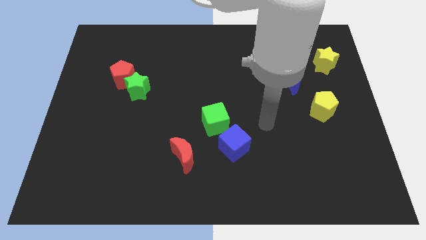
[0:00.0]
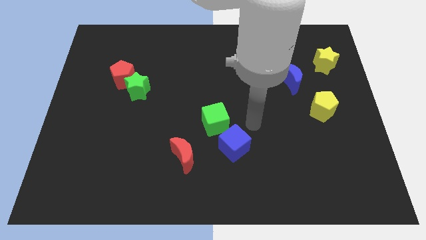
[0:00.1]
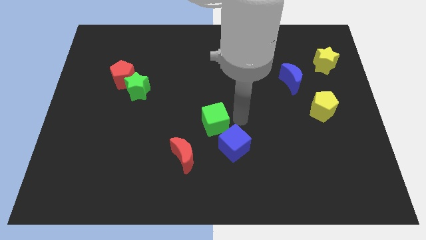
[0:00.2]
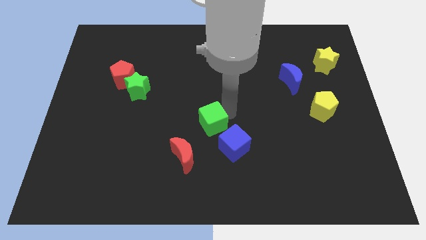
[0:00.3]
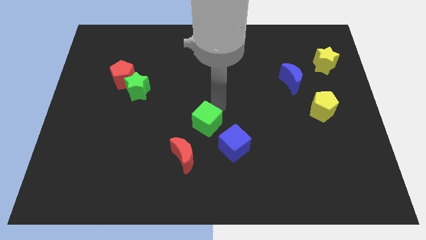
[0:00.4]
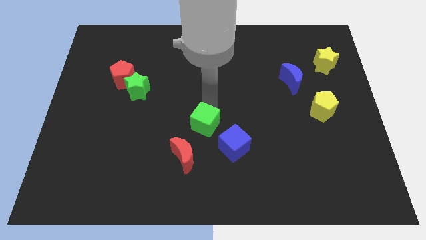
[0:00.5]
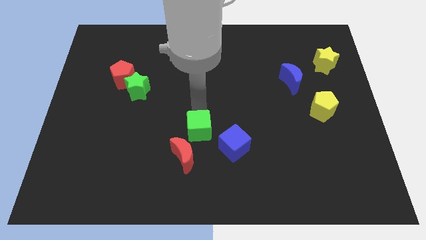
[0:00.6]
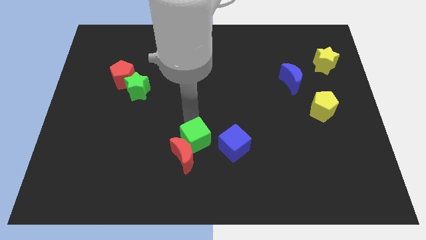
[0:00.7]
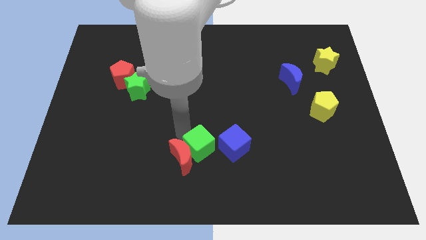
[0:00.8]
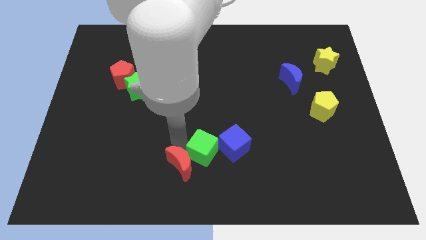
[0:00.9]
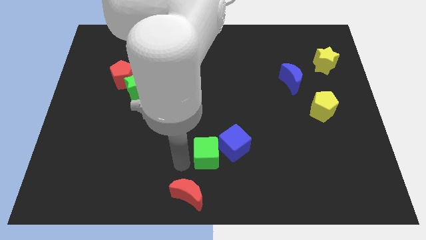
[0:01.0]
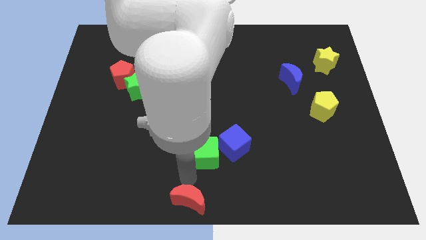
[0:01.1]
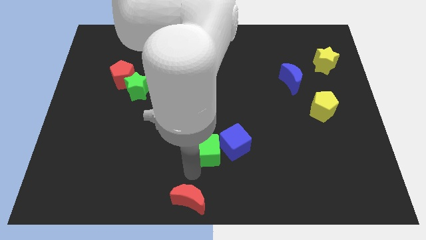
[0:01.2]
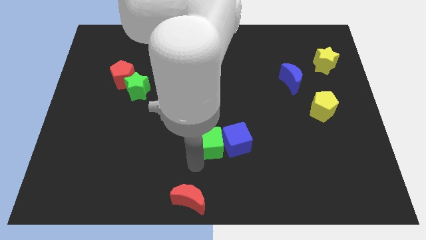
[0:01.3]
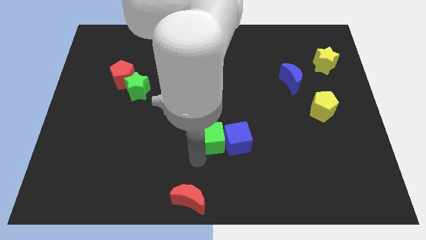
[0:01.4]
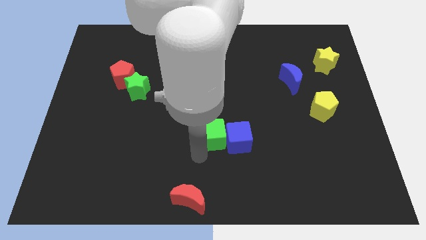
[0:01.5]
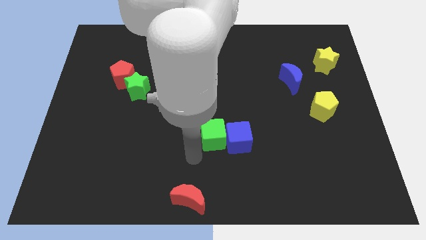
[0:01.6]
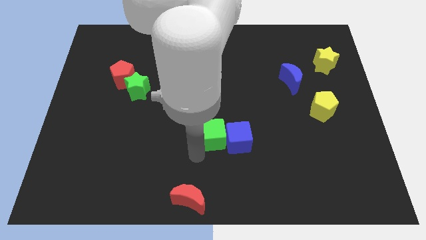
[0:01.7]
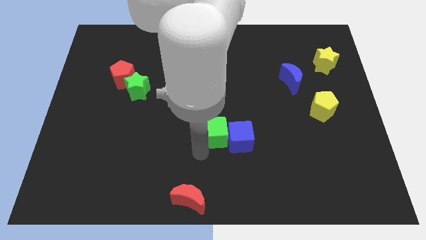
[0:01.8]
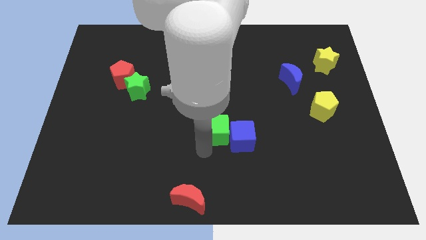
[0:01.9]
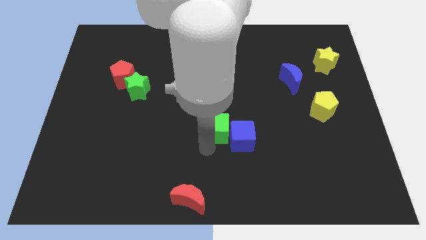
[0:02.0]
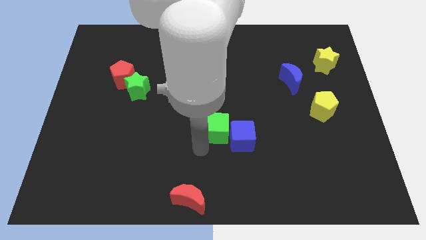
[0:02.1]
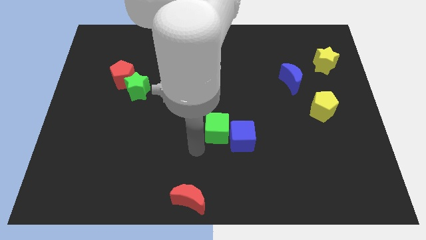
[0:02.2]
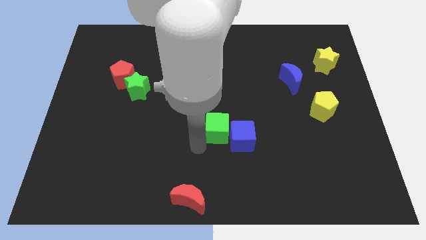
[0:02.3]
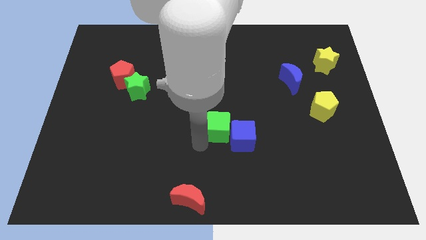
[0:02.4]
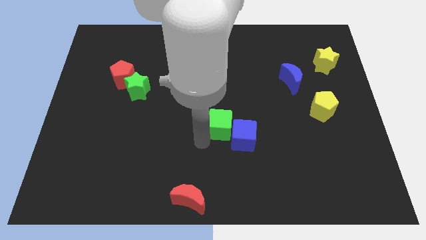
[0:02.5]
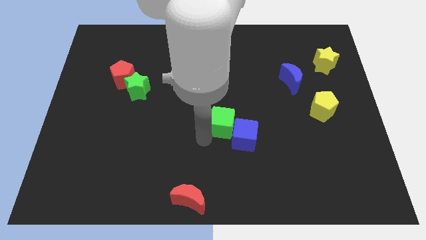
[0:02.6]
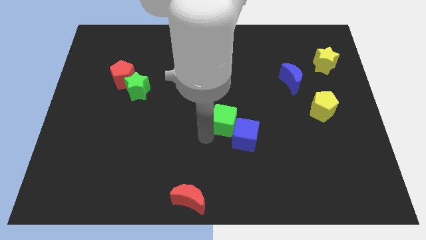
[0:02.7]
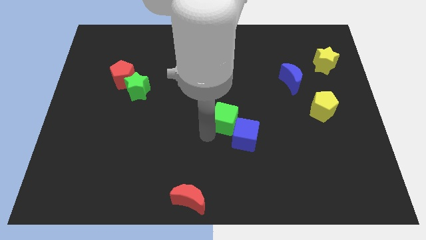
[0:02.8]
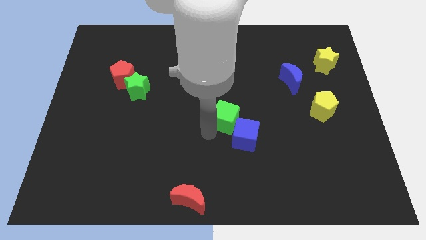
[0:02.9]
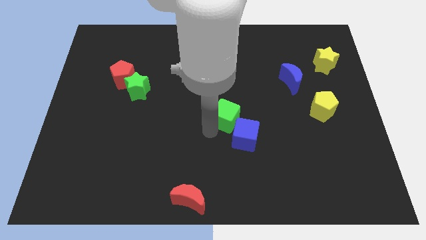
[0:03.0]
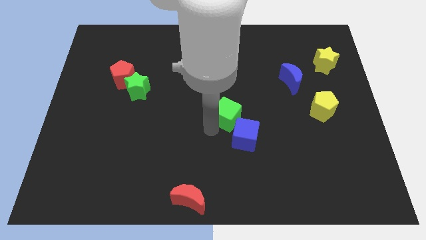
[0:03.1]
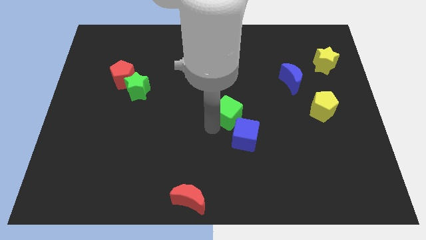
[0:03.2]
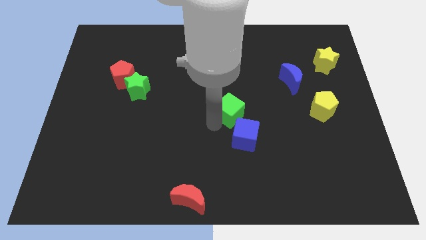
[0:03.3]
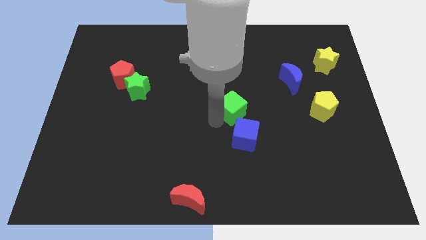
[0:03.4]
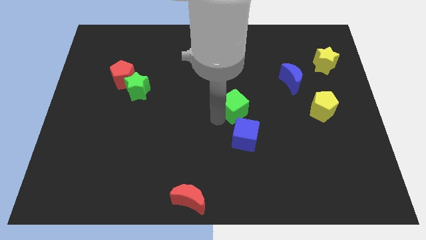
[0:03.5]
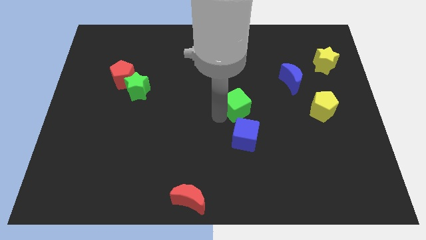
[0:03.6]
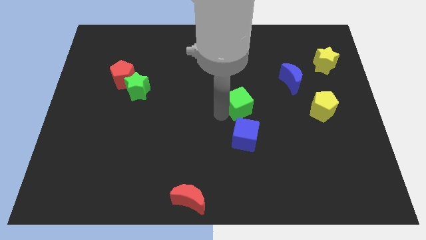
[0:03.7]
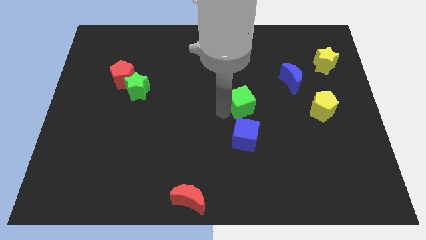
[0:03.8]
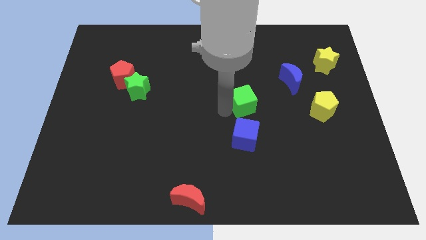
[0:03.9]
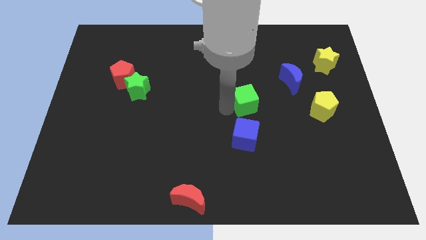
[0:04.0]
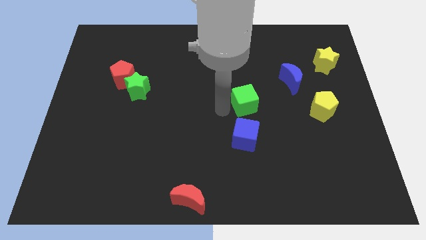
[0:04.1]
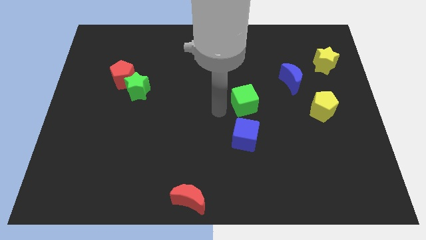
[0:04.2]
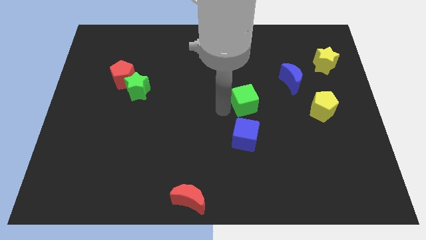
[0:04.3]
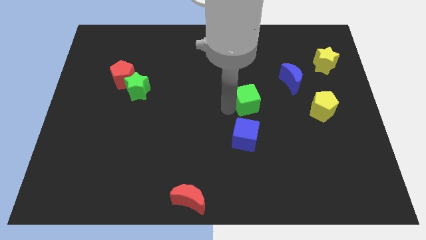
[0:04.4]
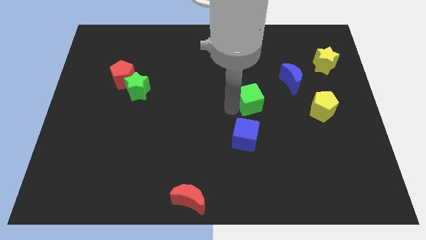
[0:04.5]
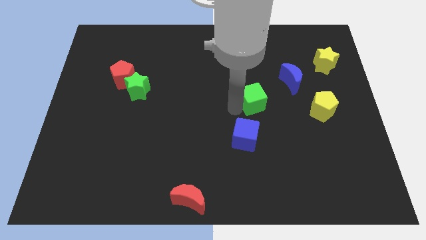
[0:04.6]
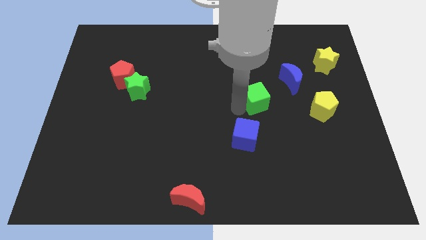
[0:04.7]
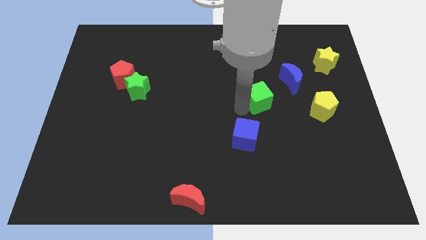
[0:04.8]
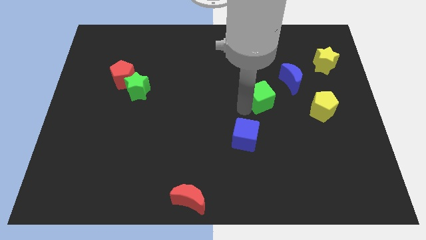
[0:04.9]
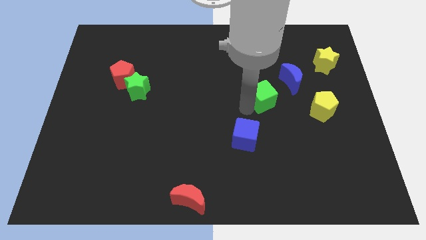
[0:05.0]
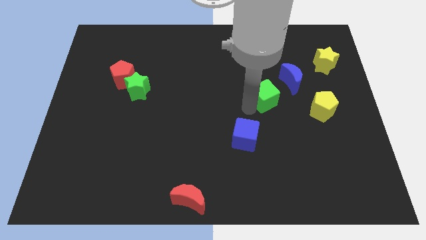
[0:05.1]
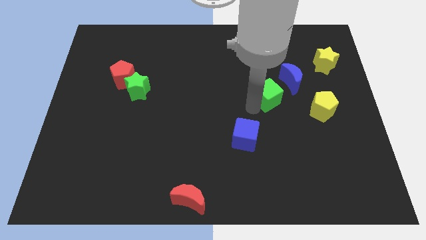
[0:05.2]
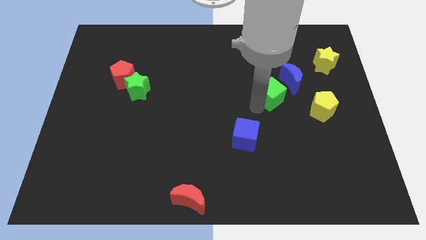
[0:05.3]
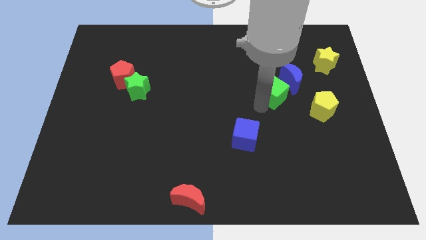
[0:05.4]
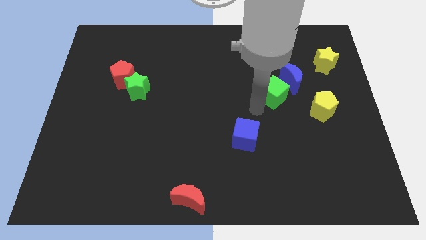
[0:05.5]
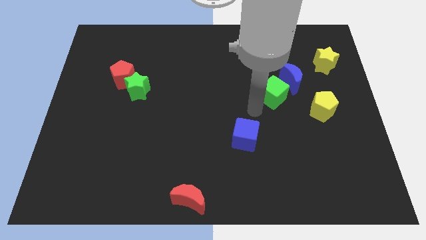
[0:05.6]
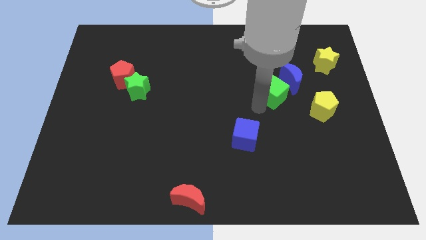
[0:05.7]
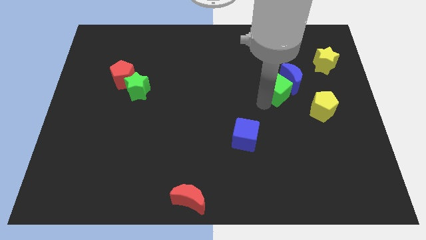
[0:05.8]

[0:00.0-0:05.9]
move the green cube to the blue moon

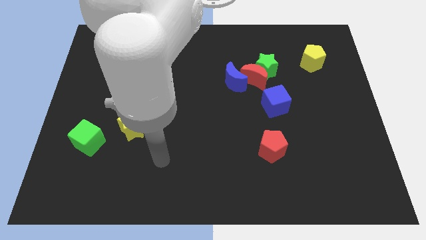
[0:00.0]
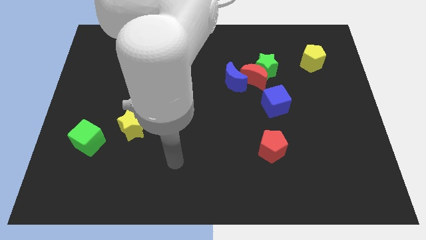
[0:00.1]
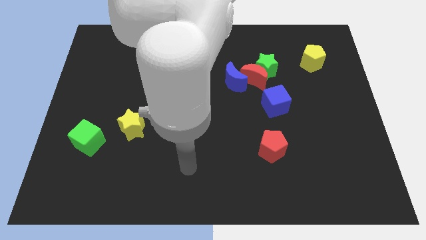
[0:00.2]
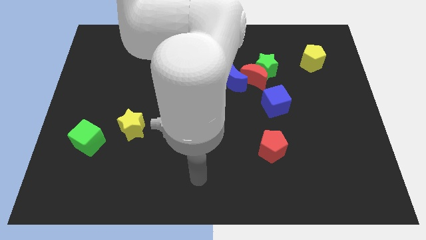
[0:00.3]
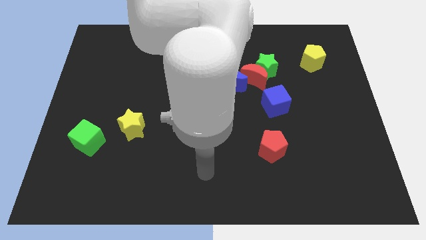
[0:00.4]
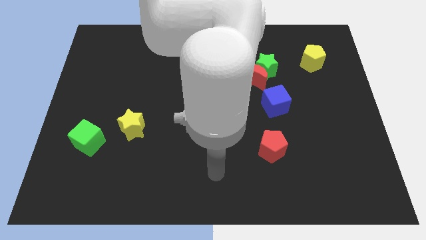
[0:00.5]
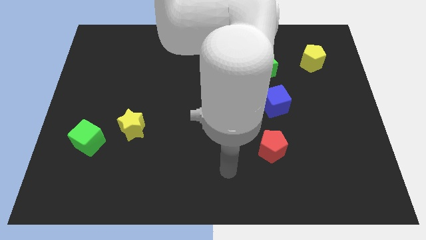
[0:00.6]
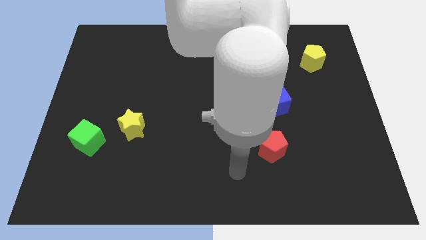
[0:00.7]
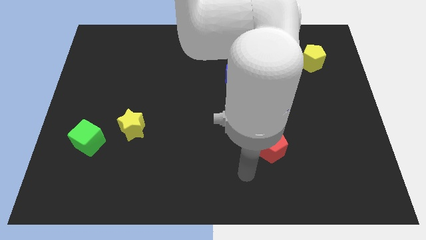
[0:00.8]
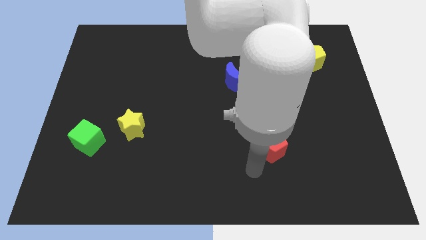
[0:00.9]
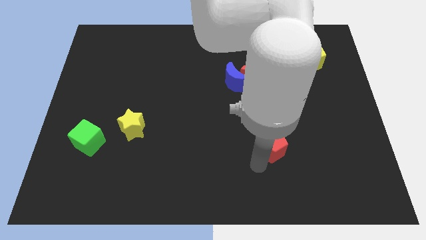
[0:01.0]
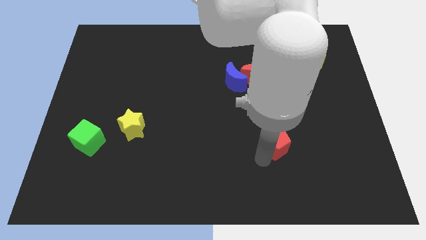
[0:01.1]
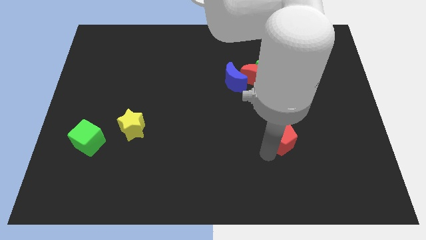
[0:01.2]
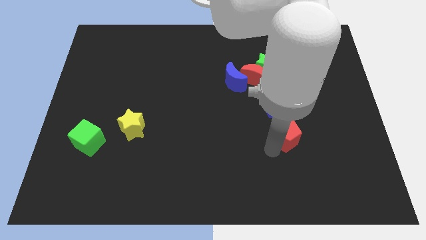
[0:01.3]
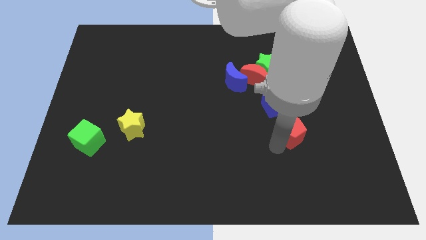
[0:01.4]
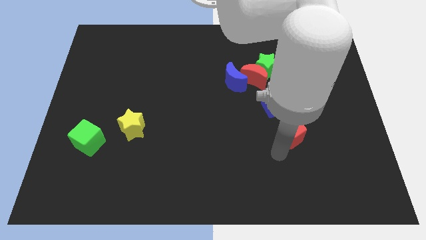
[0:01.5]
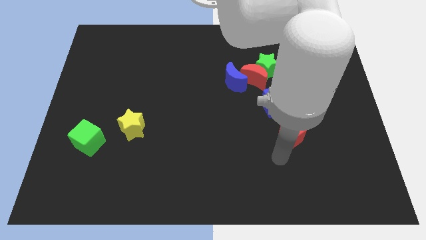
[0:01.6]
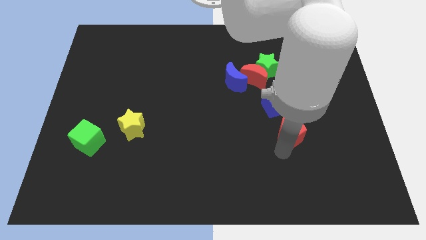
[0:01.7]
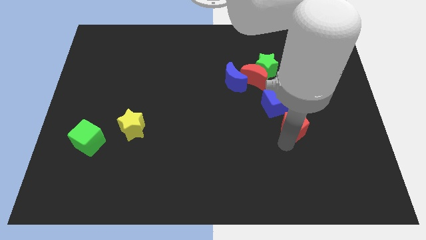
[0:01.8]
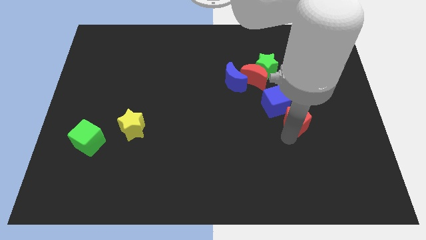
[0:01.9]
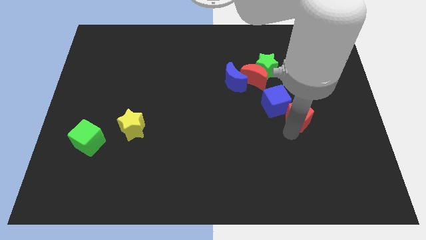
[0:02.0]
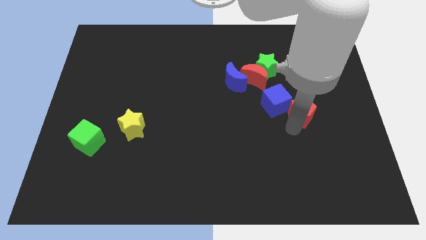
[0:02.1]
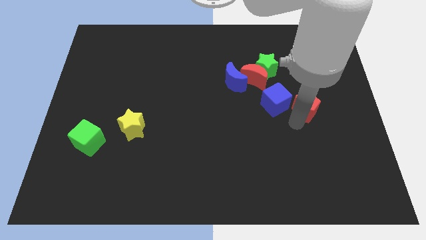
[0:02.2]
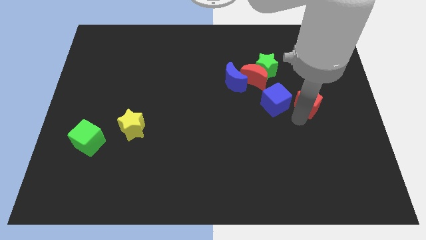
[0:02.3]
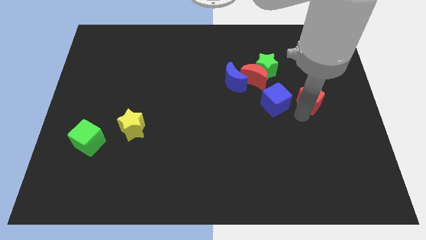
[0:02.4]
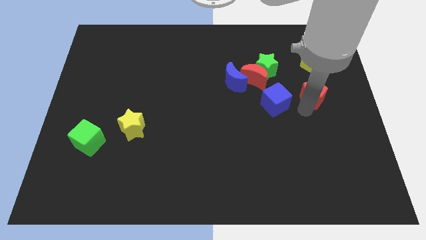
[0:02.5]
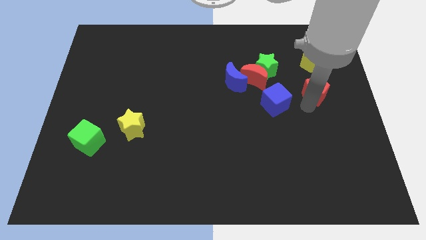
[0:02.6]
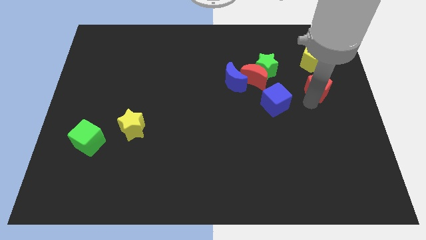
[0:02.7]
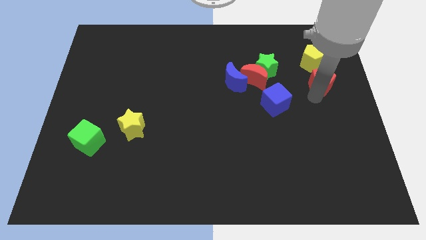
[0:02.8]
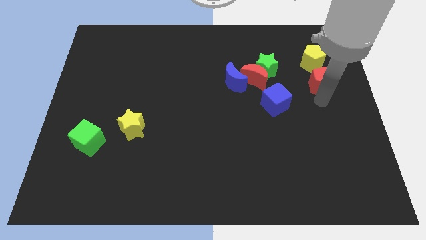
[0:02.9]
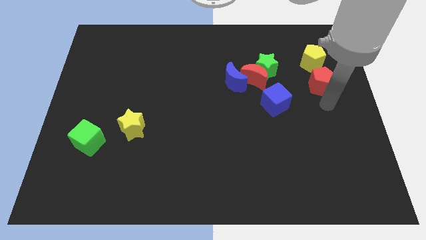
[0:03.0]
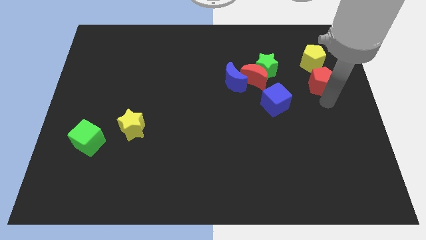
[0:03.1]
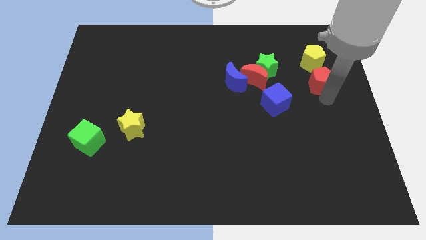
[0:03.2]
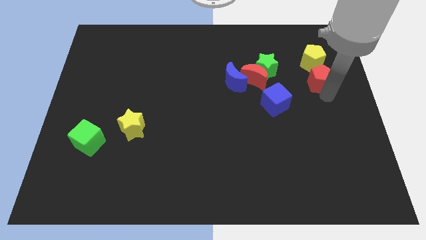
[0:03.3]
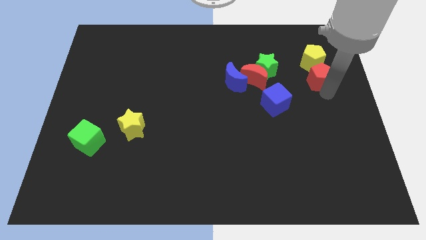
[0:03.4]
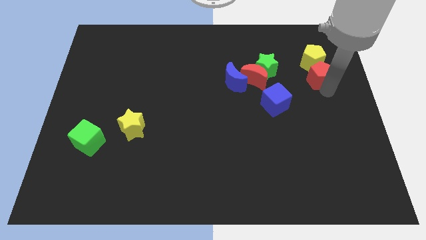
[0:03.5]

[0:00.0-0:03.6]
push the red pentagon next to the yellow pentagon
